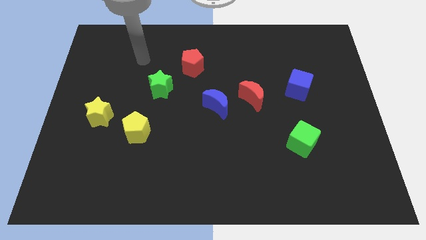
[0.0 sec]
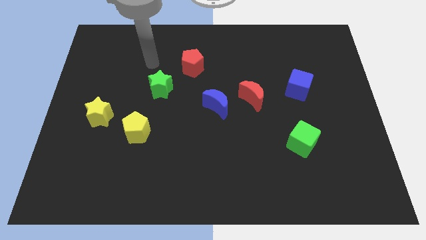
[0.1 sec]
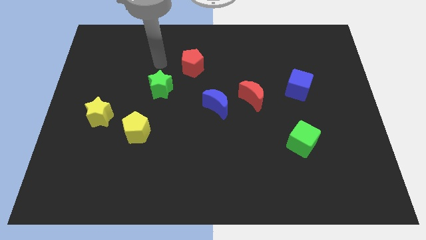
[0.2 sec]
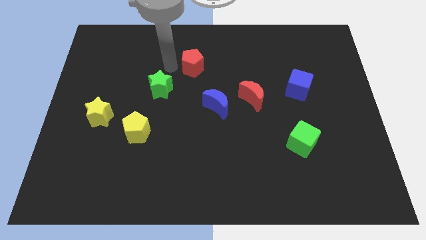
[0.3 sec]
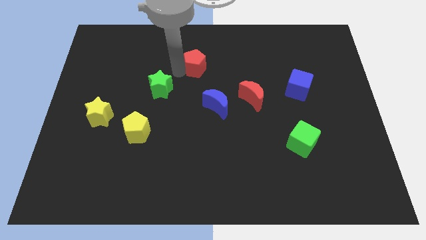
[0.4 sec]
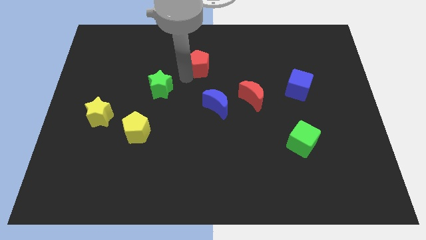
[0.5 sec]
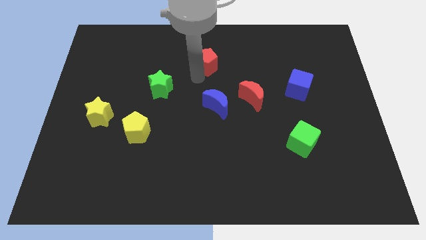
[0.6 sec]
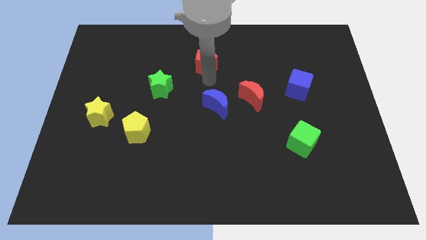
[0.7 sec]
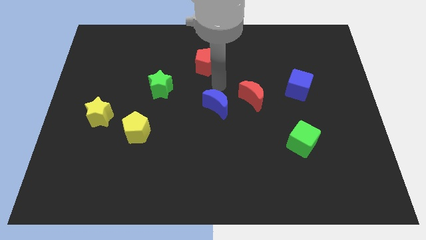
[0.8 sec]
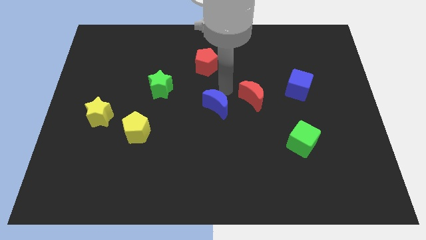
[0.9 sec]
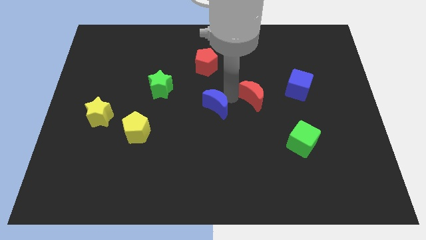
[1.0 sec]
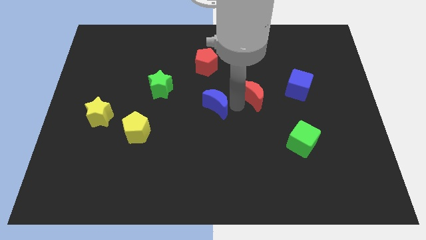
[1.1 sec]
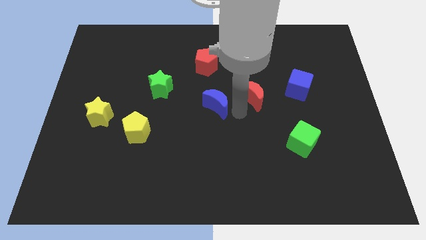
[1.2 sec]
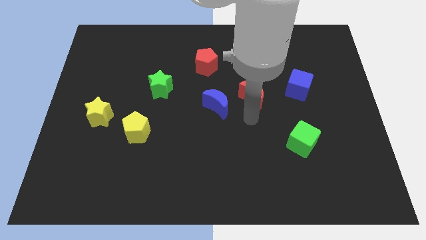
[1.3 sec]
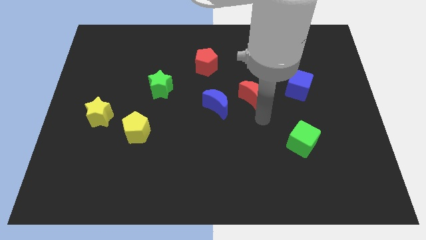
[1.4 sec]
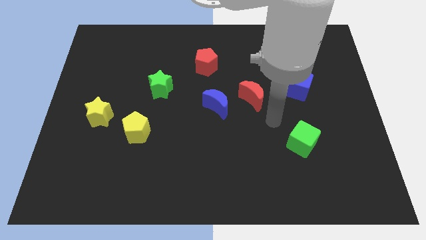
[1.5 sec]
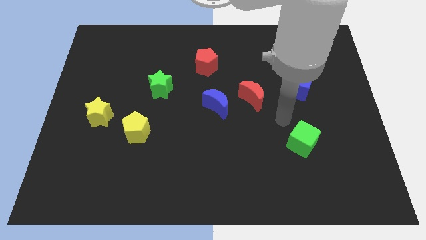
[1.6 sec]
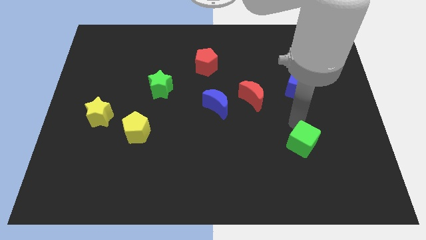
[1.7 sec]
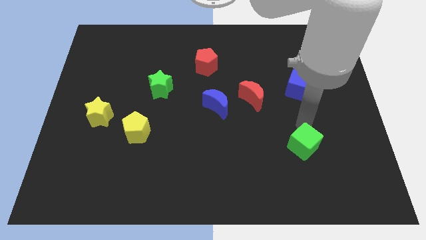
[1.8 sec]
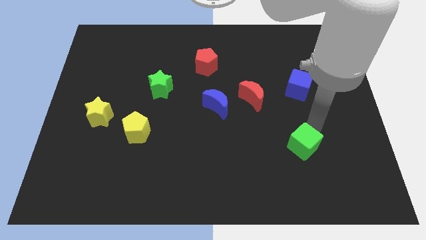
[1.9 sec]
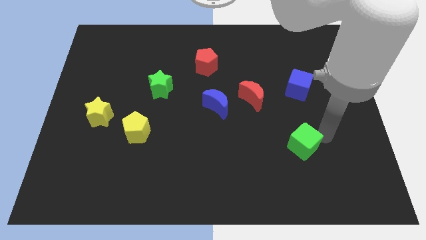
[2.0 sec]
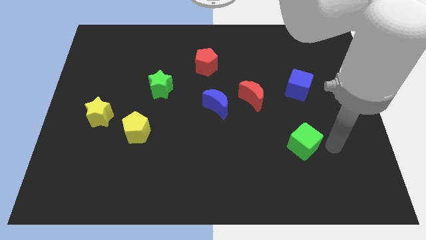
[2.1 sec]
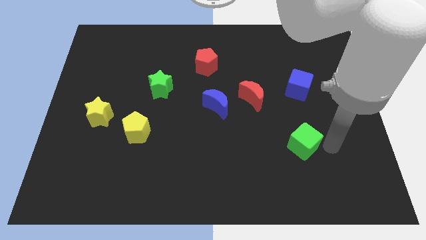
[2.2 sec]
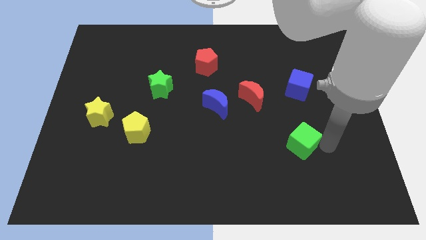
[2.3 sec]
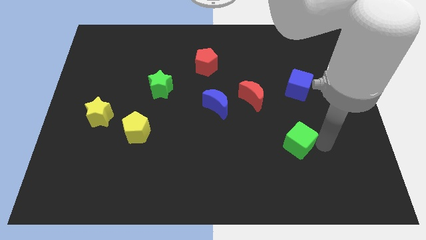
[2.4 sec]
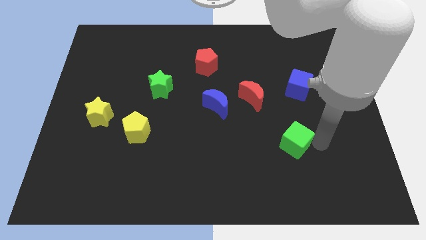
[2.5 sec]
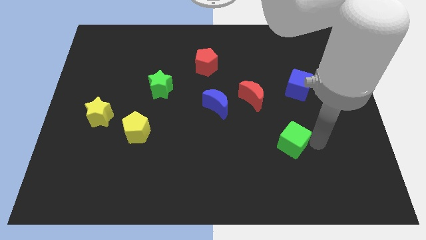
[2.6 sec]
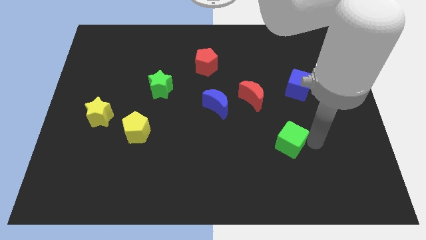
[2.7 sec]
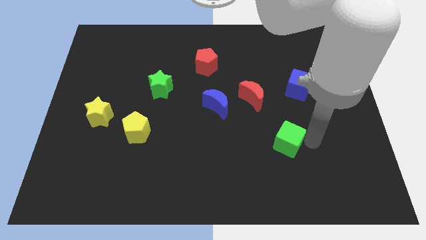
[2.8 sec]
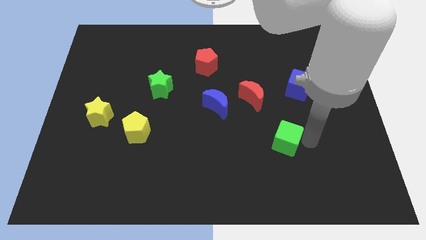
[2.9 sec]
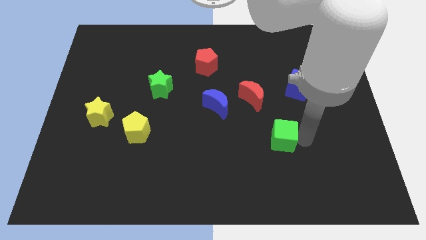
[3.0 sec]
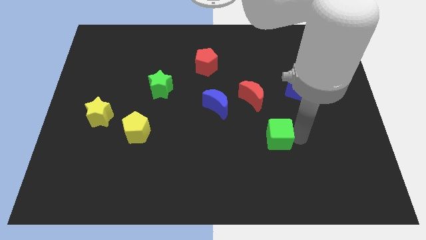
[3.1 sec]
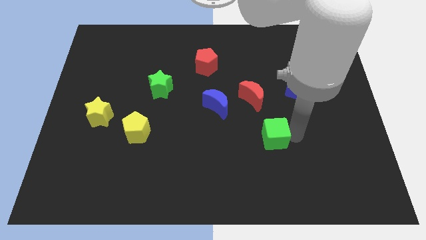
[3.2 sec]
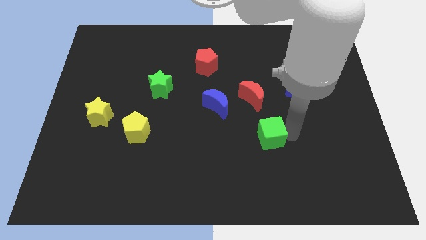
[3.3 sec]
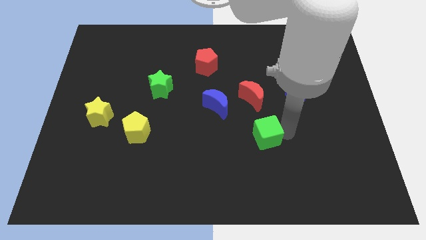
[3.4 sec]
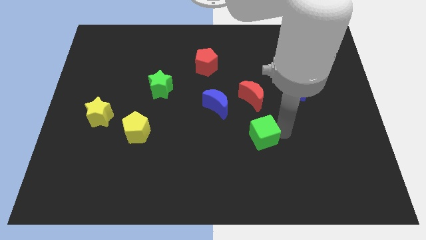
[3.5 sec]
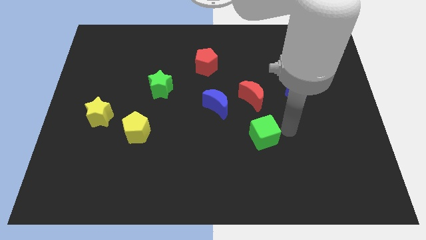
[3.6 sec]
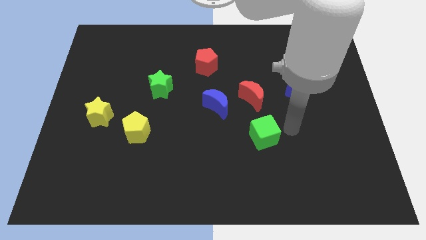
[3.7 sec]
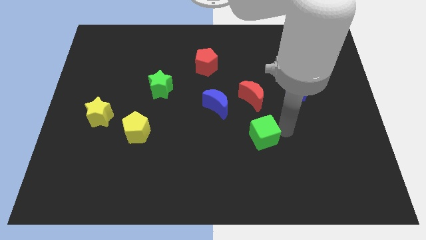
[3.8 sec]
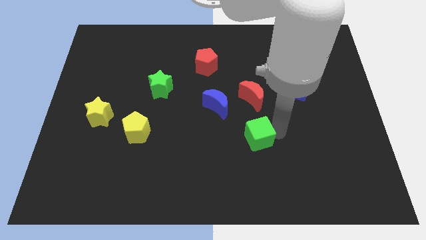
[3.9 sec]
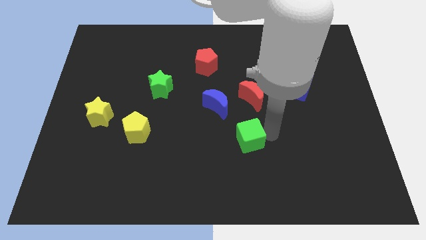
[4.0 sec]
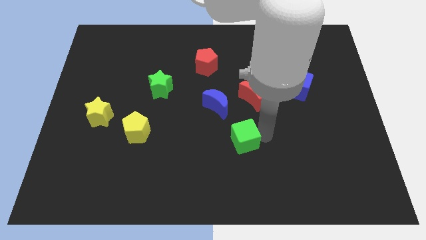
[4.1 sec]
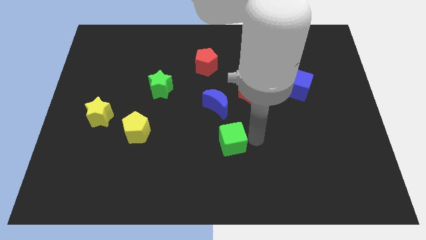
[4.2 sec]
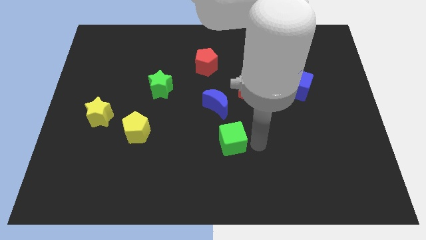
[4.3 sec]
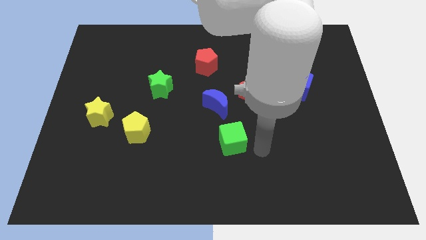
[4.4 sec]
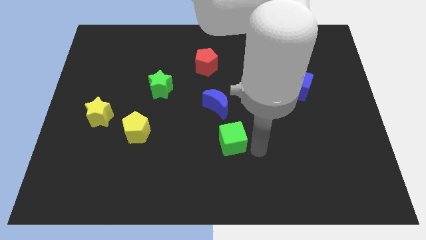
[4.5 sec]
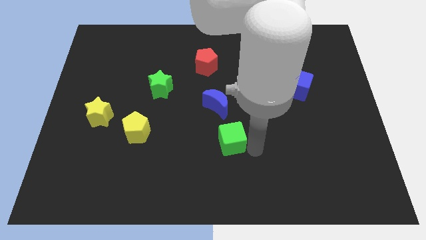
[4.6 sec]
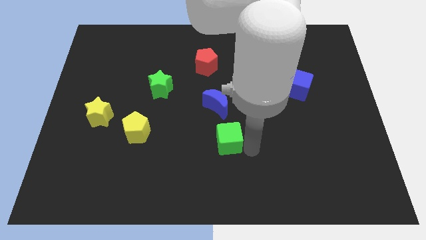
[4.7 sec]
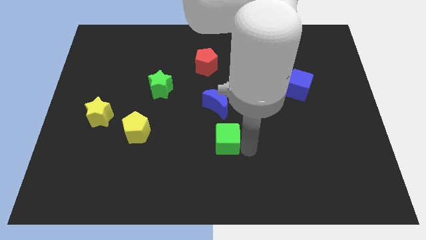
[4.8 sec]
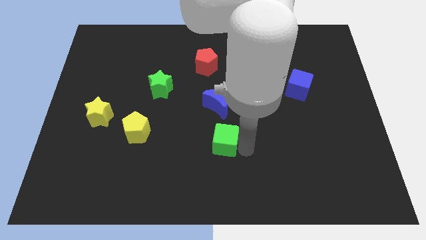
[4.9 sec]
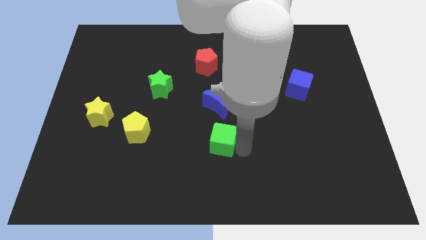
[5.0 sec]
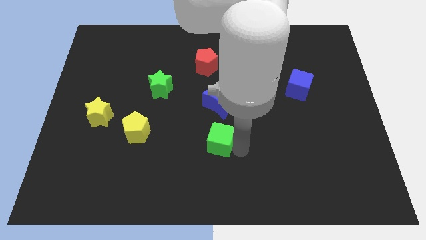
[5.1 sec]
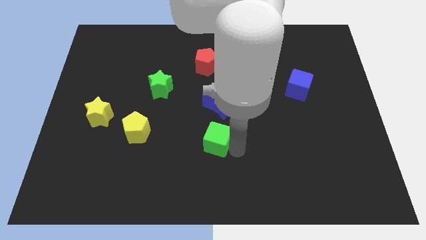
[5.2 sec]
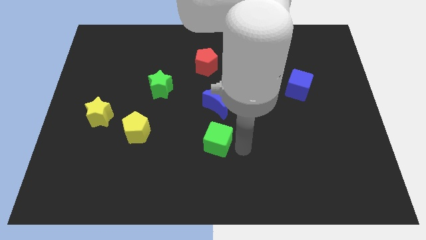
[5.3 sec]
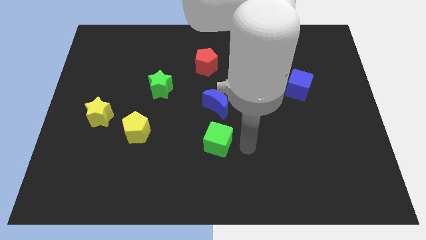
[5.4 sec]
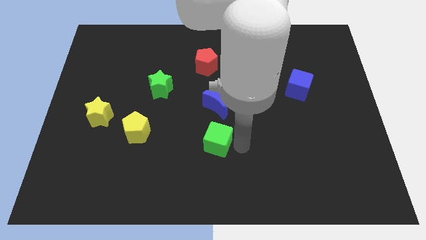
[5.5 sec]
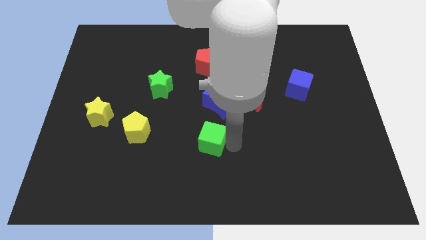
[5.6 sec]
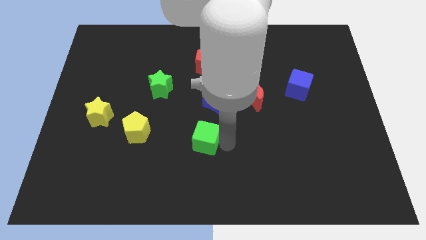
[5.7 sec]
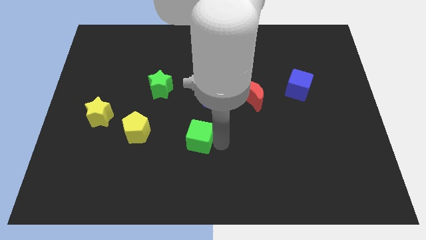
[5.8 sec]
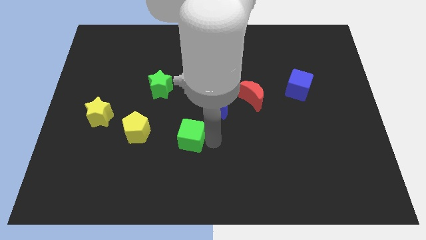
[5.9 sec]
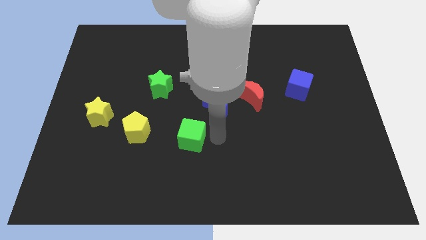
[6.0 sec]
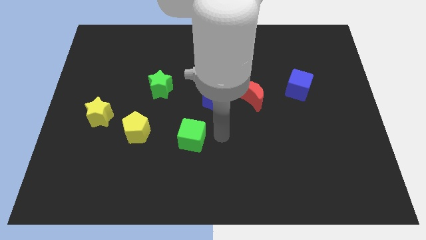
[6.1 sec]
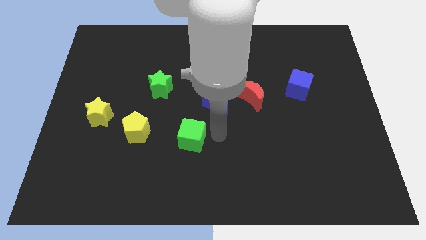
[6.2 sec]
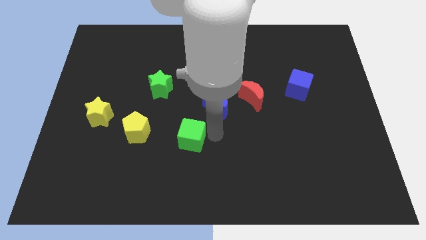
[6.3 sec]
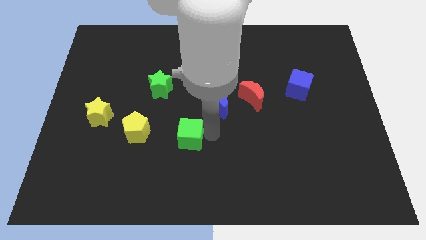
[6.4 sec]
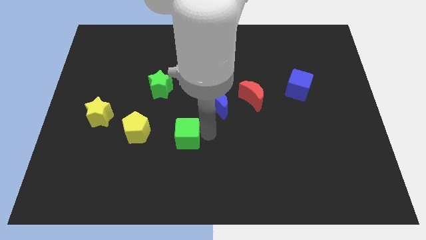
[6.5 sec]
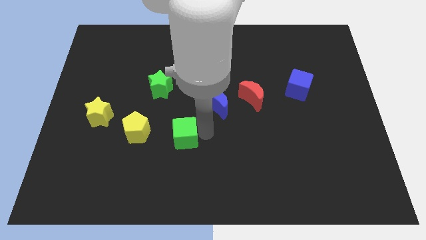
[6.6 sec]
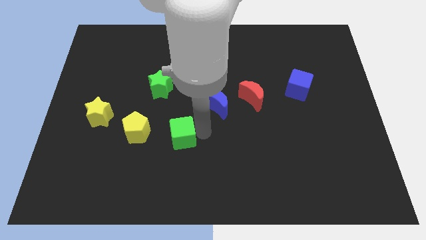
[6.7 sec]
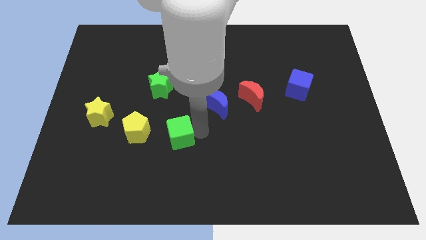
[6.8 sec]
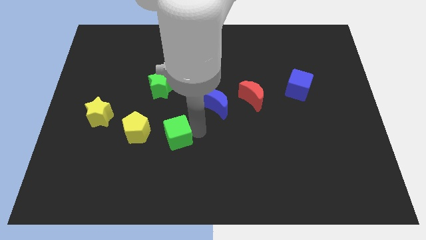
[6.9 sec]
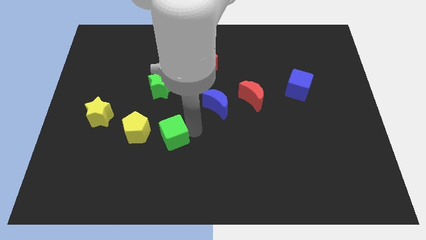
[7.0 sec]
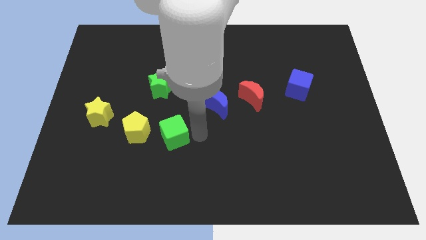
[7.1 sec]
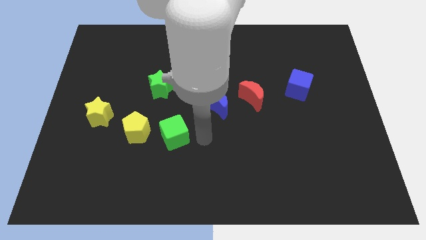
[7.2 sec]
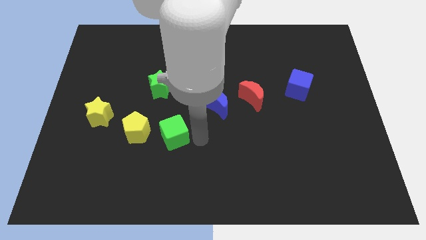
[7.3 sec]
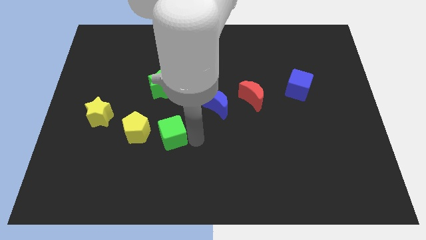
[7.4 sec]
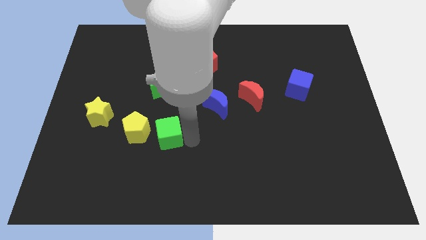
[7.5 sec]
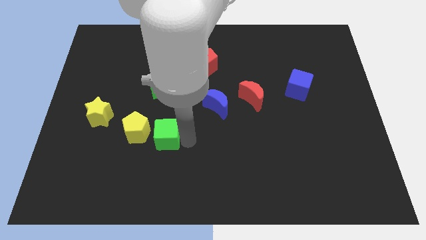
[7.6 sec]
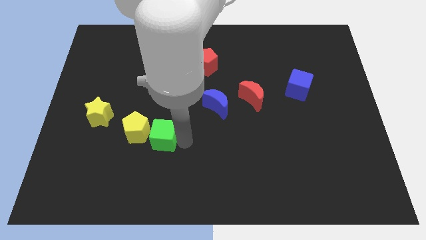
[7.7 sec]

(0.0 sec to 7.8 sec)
put the green cube to the yellow pentagon
